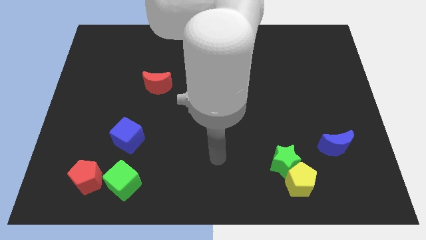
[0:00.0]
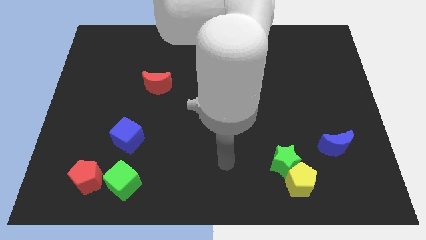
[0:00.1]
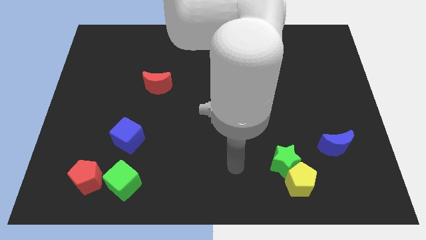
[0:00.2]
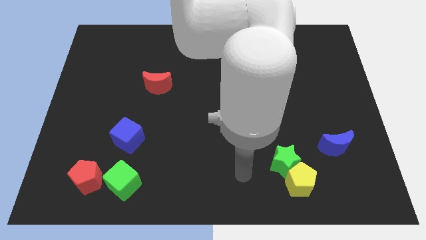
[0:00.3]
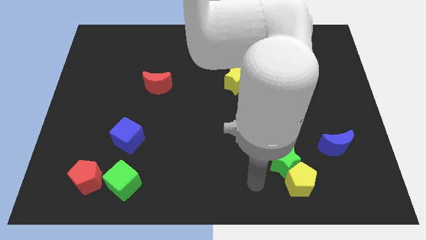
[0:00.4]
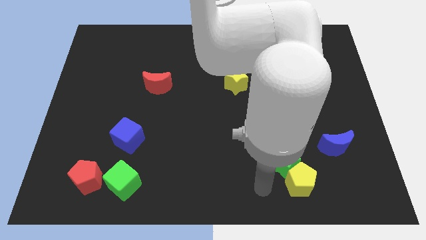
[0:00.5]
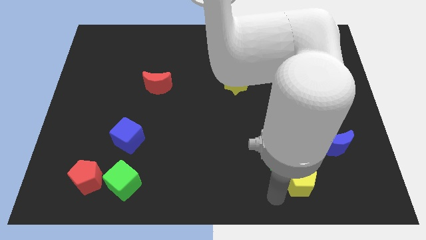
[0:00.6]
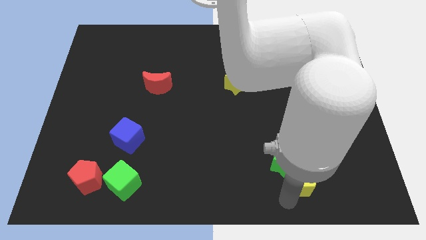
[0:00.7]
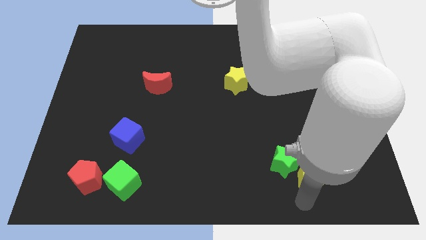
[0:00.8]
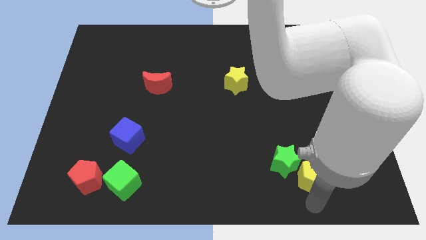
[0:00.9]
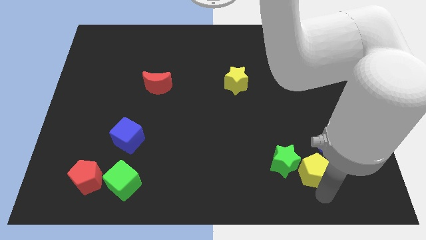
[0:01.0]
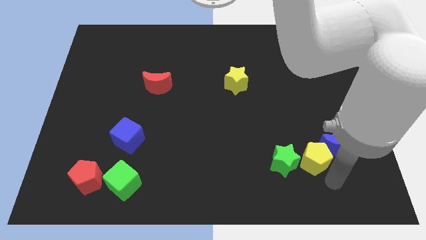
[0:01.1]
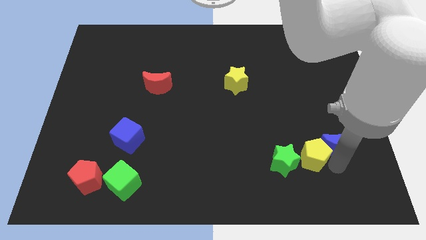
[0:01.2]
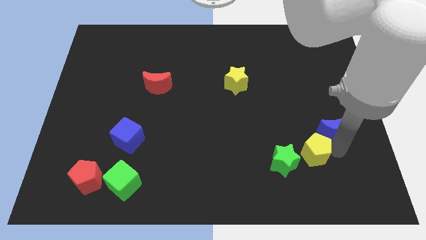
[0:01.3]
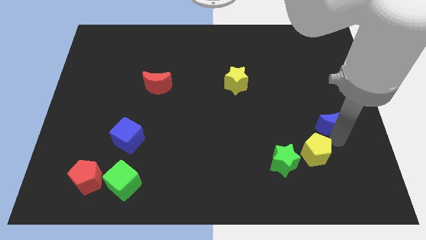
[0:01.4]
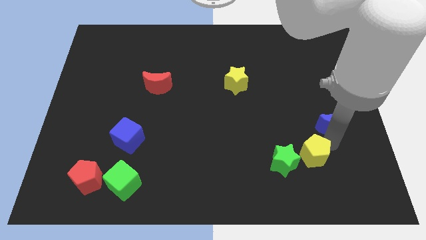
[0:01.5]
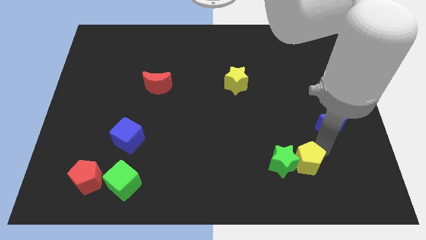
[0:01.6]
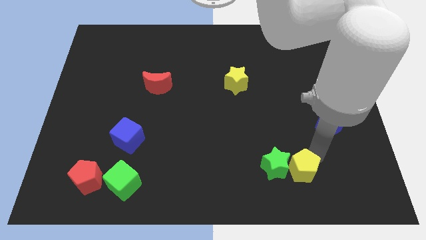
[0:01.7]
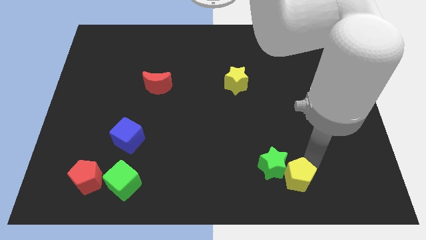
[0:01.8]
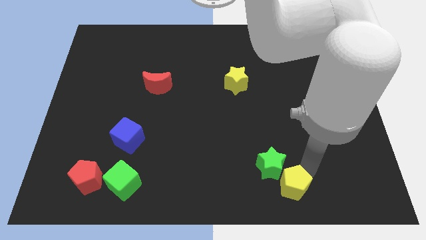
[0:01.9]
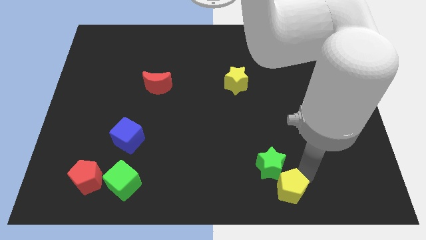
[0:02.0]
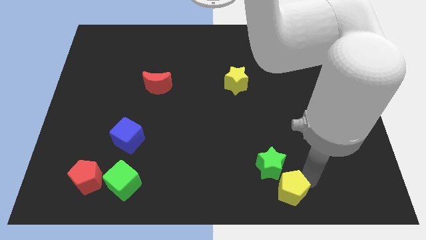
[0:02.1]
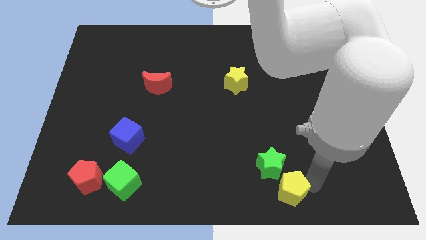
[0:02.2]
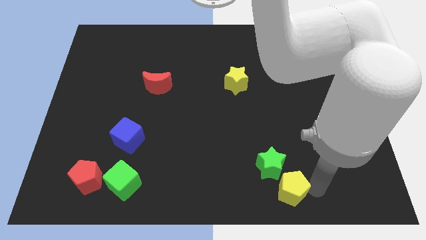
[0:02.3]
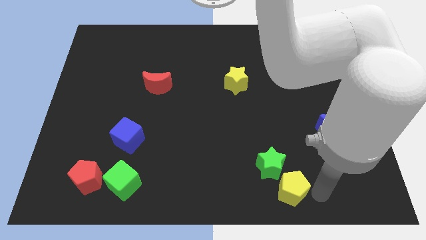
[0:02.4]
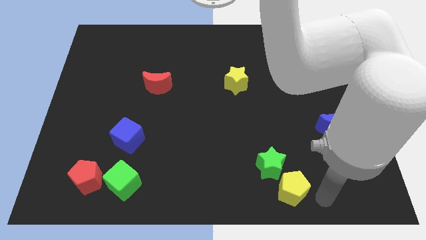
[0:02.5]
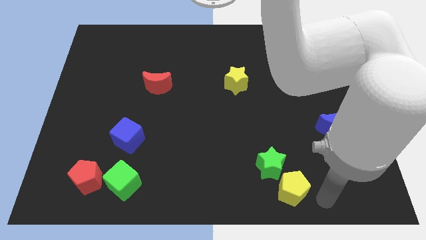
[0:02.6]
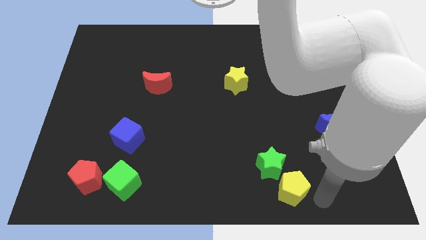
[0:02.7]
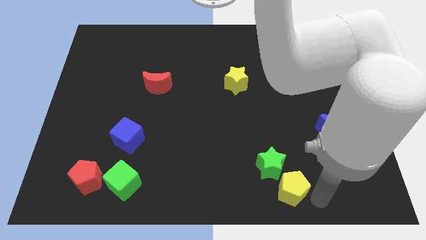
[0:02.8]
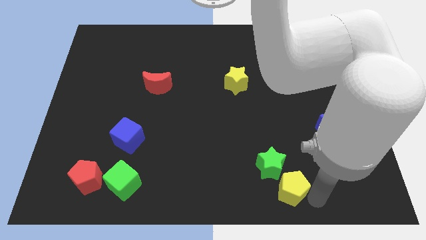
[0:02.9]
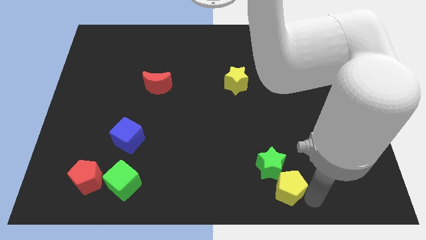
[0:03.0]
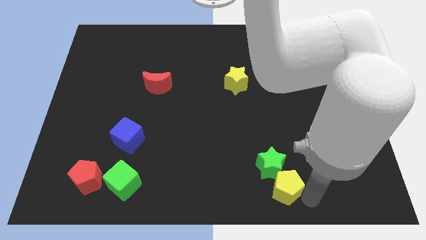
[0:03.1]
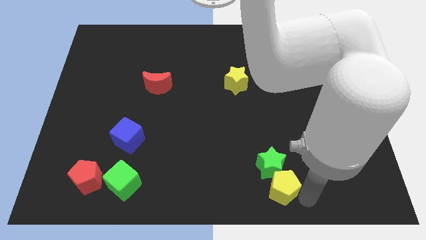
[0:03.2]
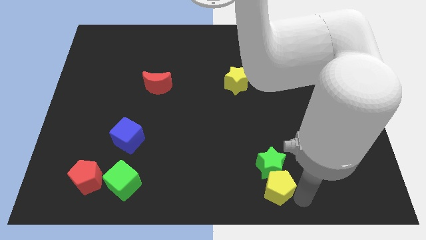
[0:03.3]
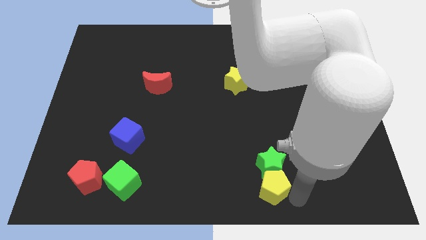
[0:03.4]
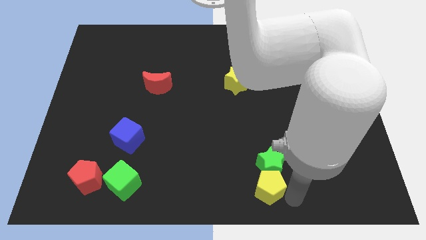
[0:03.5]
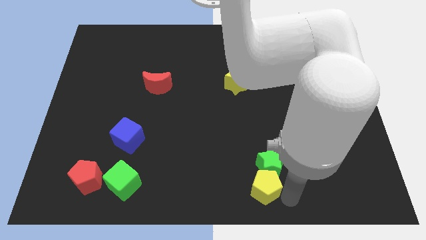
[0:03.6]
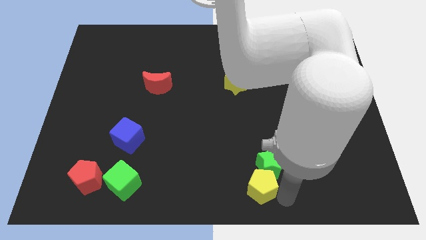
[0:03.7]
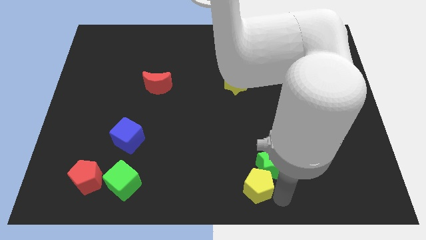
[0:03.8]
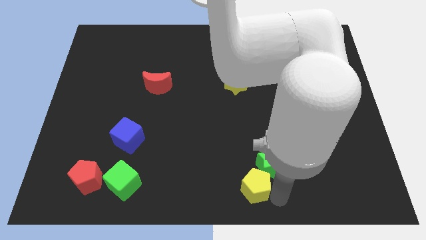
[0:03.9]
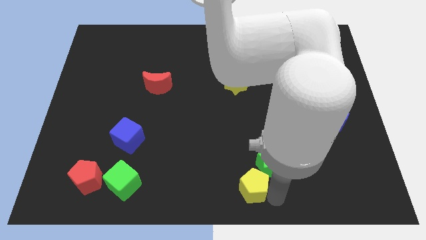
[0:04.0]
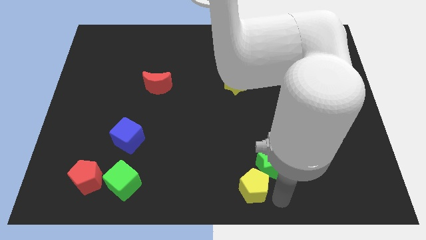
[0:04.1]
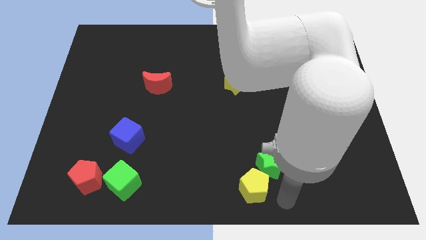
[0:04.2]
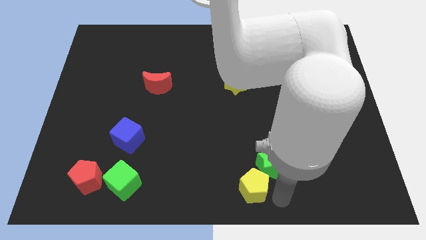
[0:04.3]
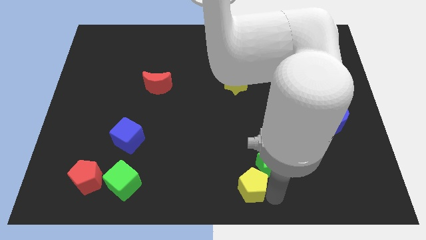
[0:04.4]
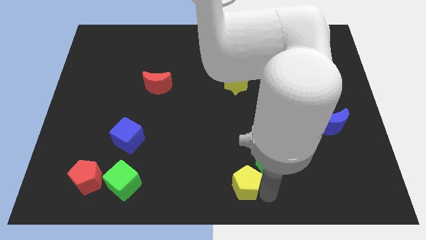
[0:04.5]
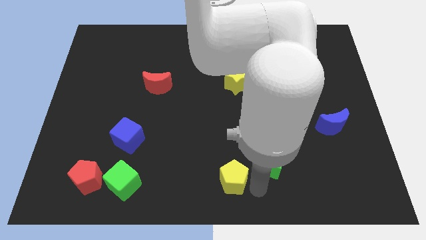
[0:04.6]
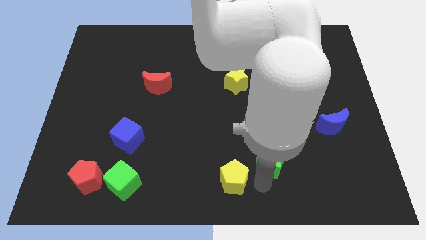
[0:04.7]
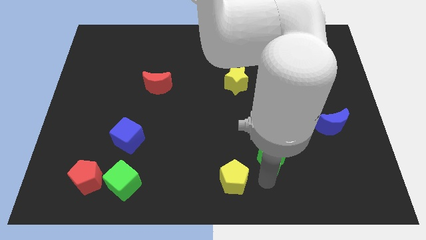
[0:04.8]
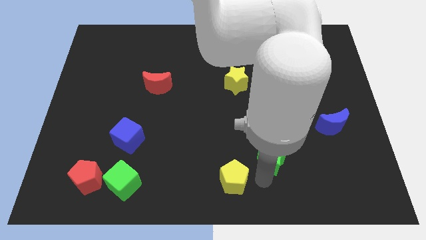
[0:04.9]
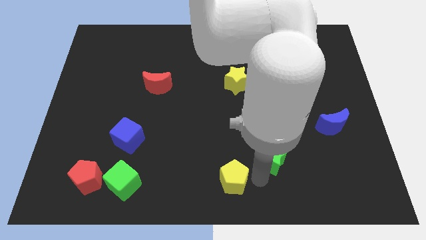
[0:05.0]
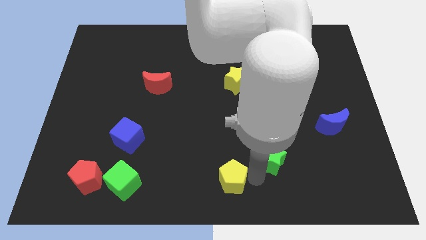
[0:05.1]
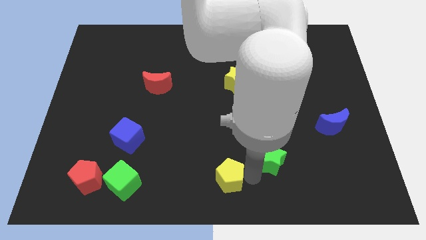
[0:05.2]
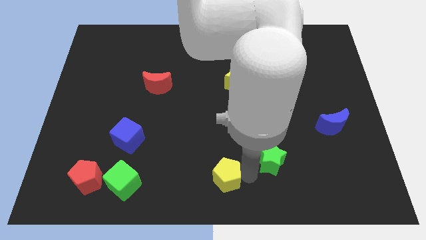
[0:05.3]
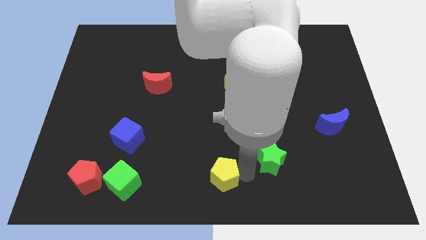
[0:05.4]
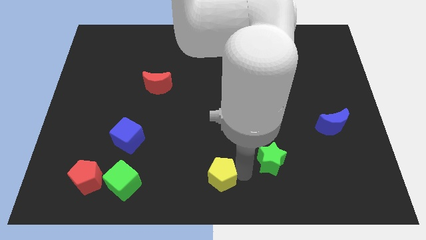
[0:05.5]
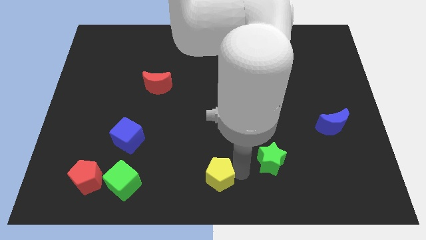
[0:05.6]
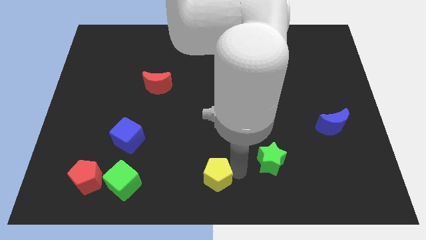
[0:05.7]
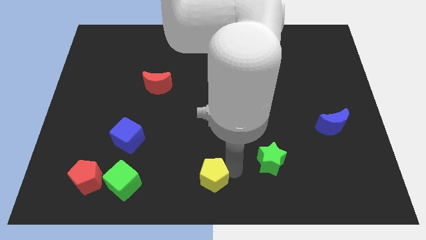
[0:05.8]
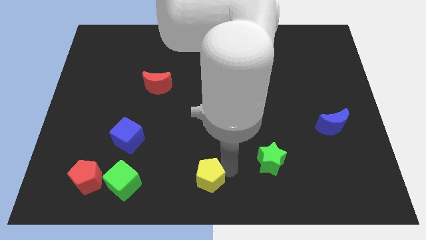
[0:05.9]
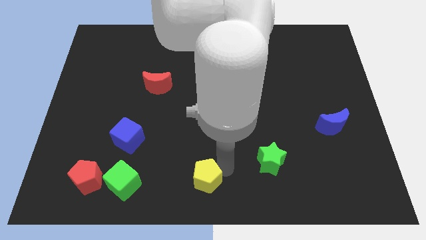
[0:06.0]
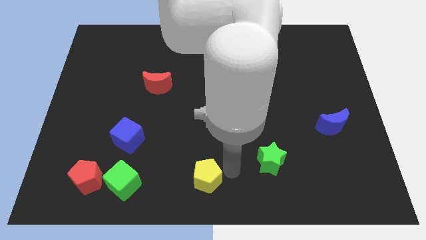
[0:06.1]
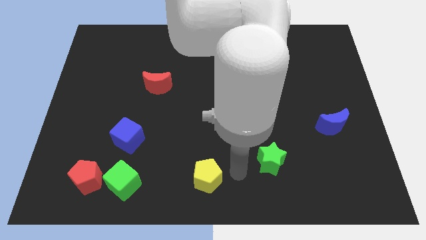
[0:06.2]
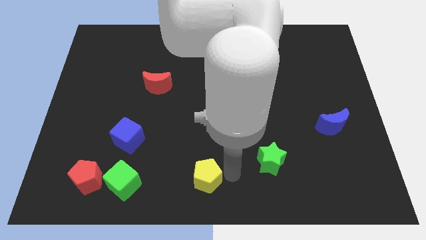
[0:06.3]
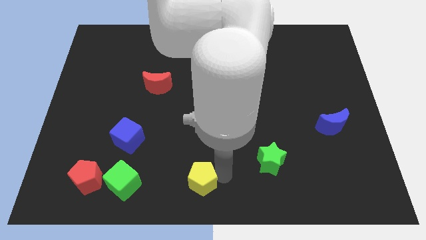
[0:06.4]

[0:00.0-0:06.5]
move the yellow pentagon just right of the green cube
